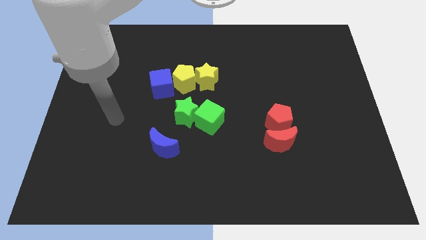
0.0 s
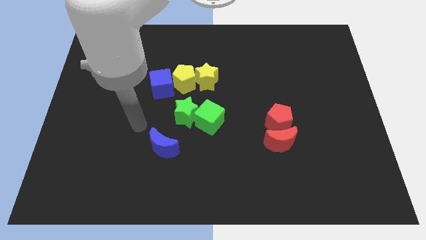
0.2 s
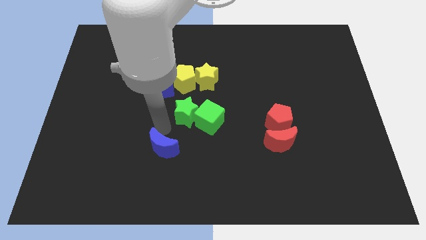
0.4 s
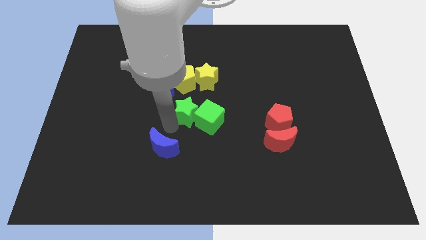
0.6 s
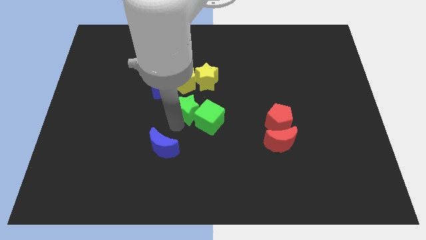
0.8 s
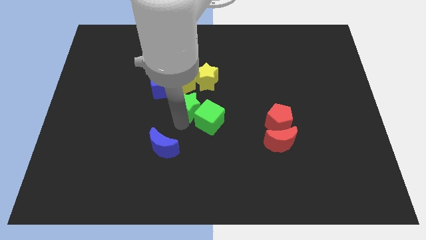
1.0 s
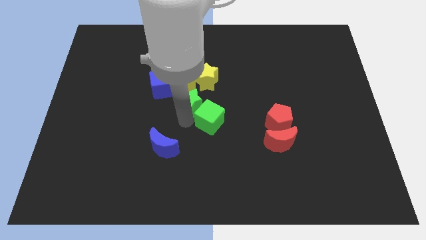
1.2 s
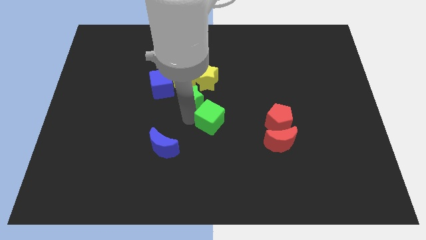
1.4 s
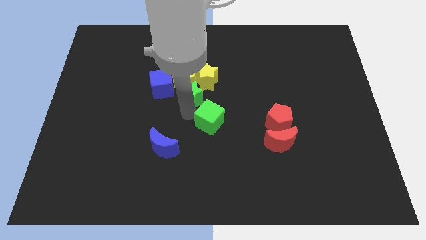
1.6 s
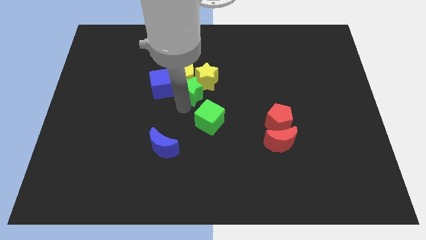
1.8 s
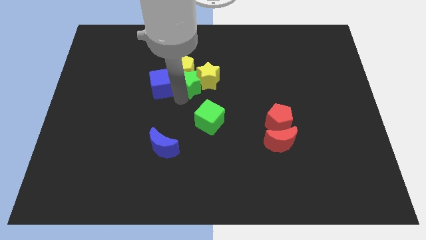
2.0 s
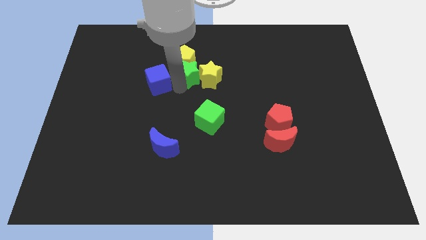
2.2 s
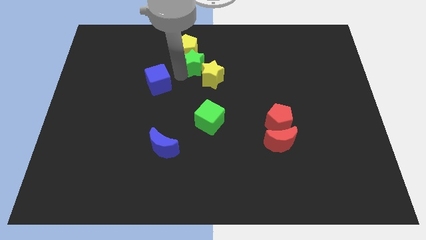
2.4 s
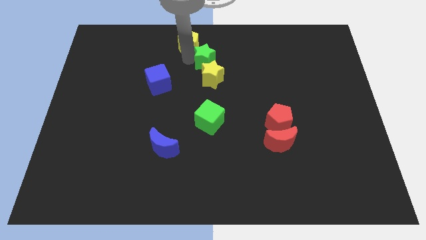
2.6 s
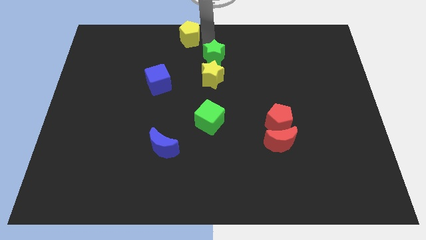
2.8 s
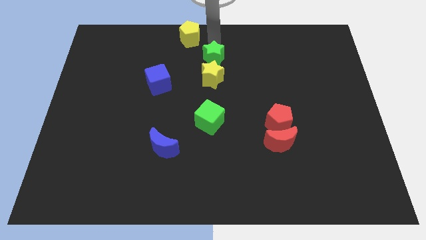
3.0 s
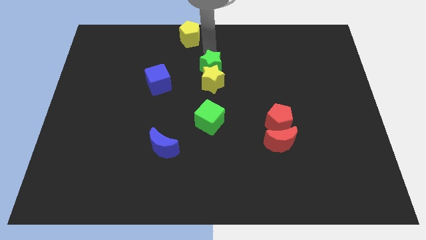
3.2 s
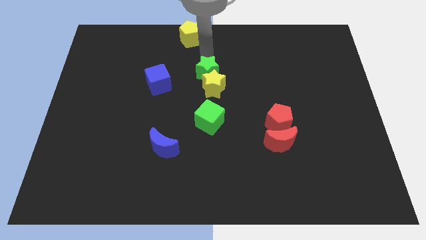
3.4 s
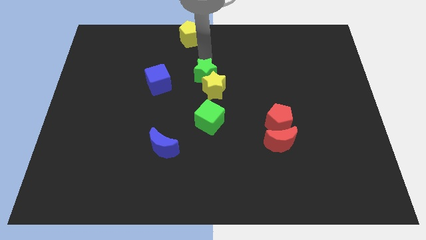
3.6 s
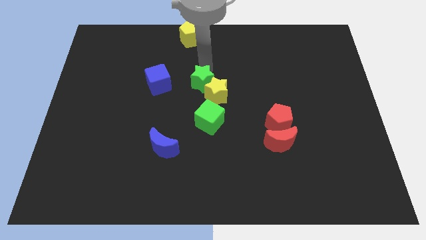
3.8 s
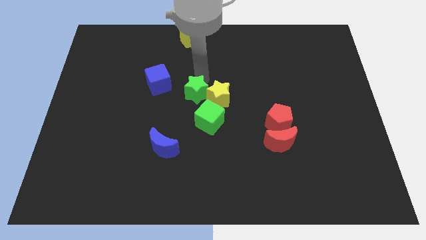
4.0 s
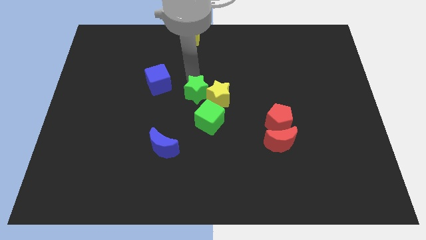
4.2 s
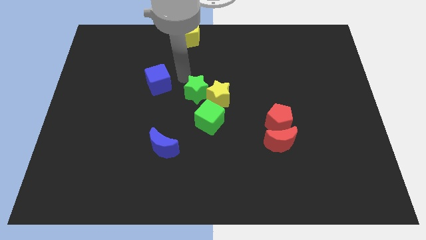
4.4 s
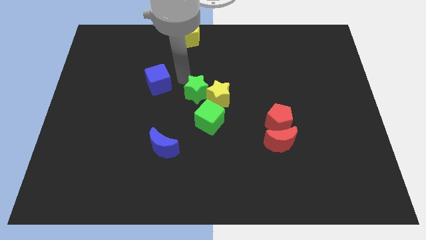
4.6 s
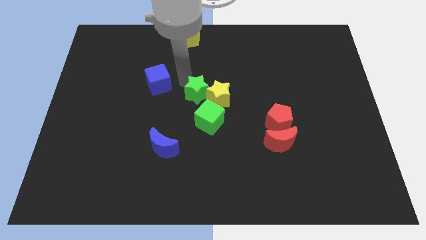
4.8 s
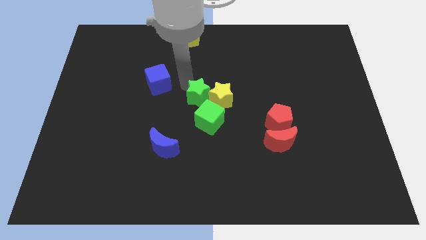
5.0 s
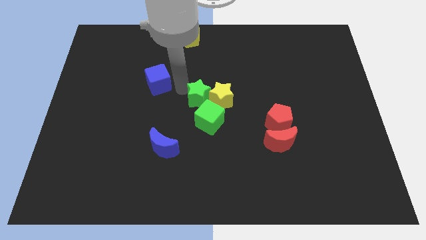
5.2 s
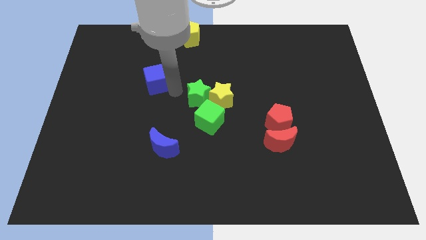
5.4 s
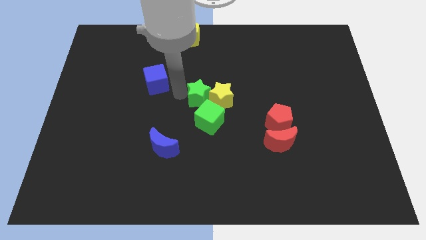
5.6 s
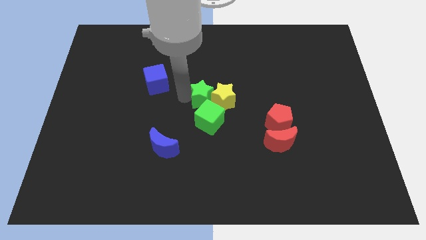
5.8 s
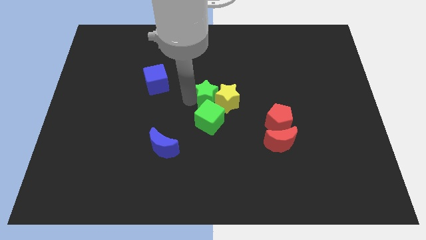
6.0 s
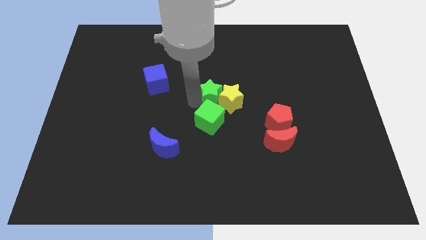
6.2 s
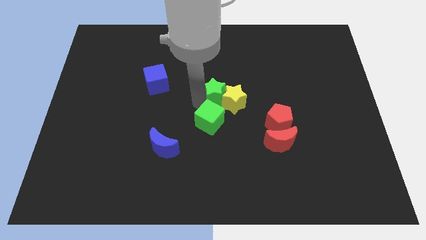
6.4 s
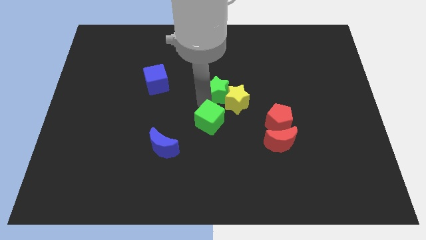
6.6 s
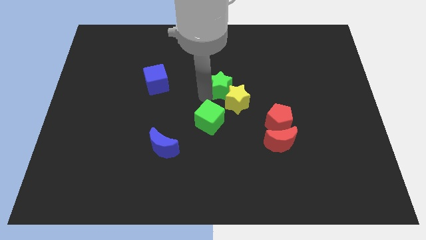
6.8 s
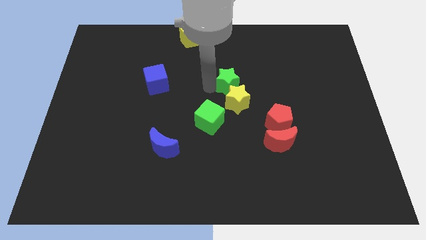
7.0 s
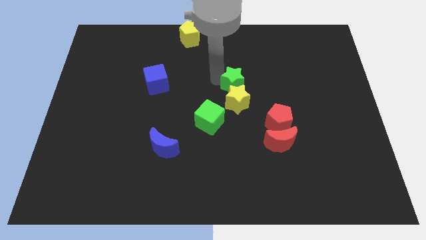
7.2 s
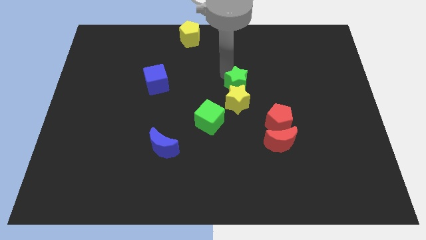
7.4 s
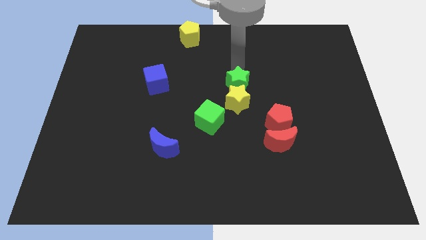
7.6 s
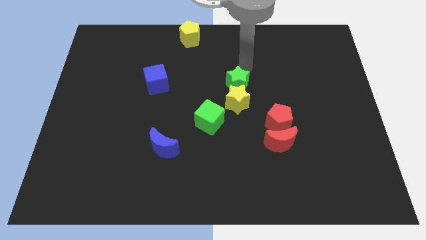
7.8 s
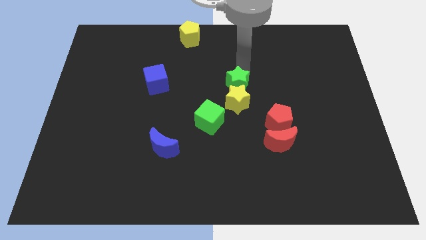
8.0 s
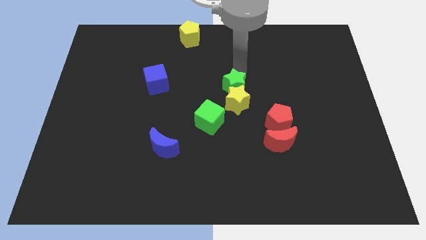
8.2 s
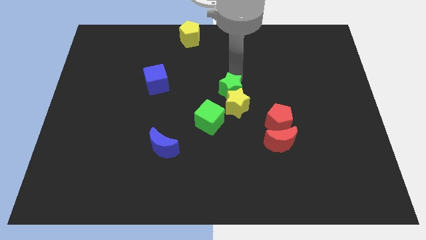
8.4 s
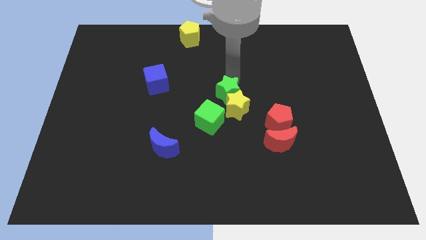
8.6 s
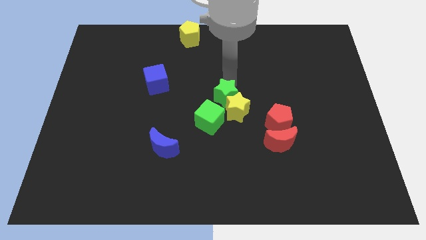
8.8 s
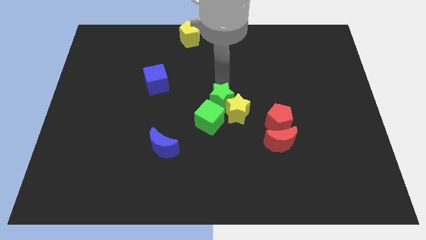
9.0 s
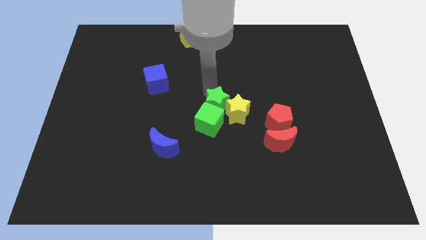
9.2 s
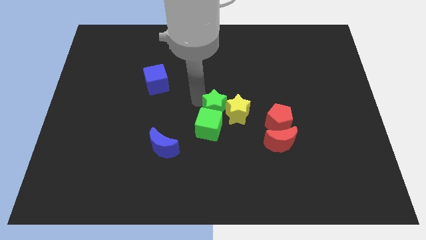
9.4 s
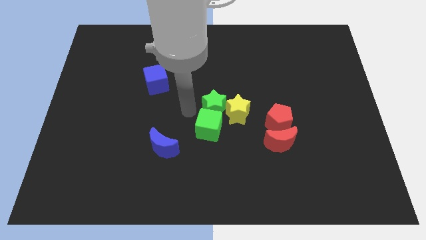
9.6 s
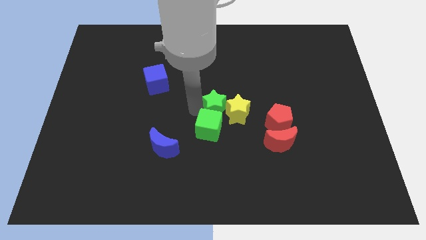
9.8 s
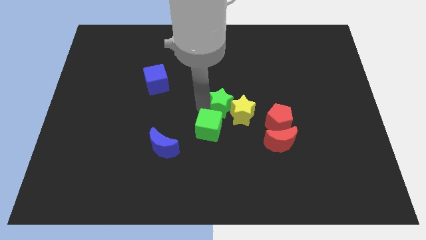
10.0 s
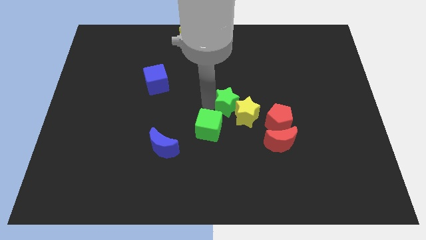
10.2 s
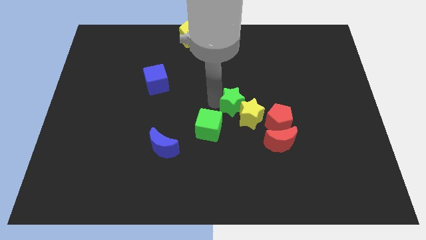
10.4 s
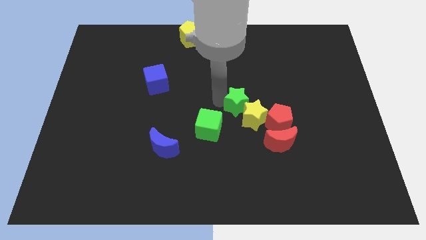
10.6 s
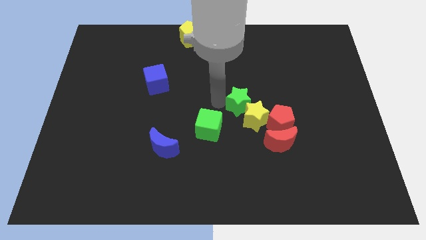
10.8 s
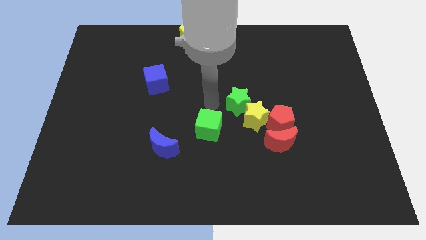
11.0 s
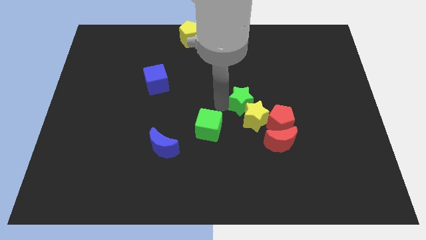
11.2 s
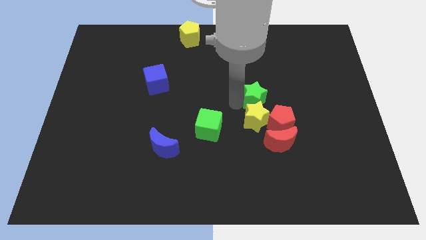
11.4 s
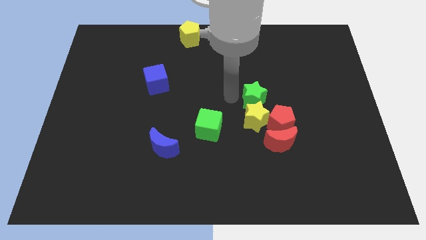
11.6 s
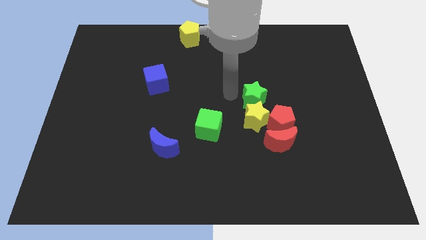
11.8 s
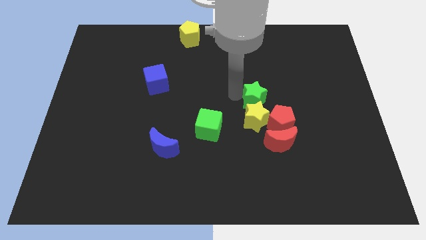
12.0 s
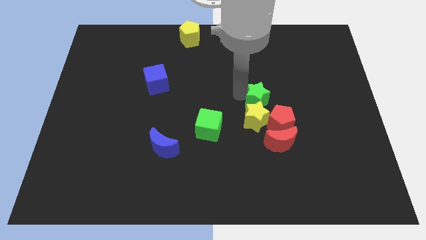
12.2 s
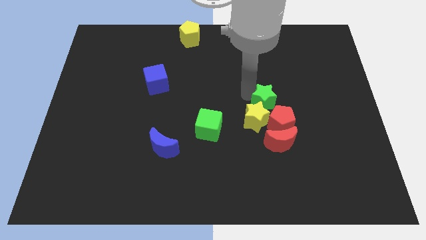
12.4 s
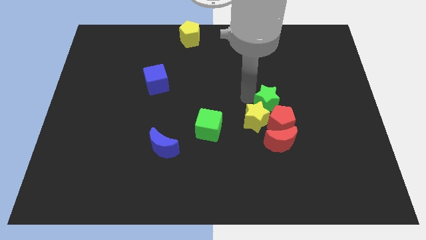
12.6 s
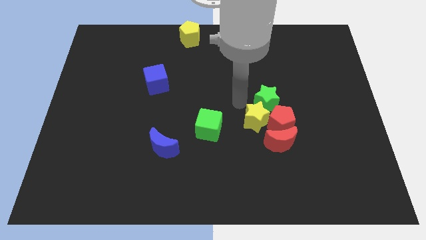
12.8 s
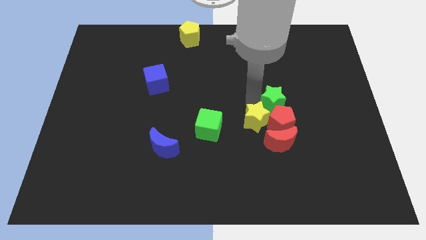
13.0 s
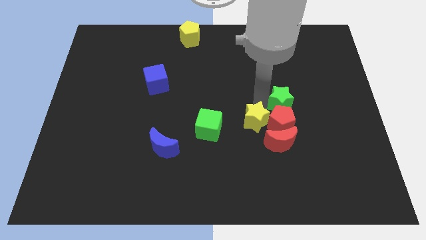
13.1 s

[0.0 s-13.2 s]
slide the green star to the right

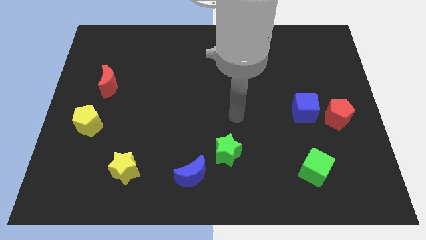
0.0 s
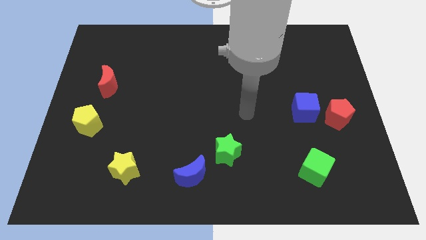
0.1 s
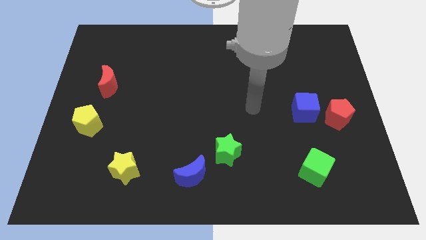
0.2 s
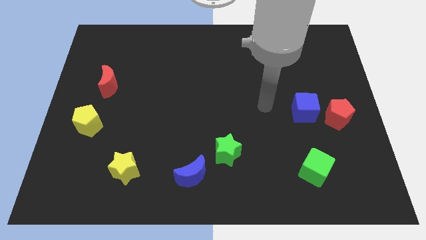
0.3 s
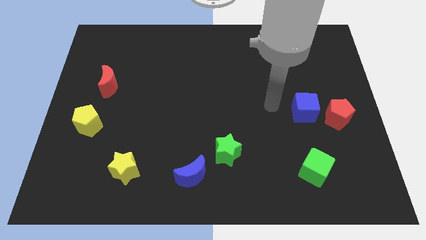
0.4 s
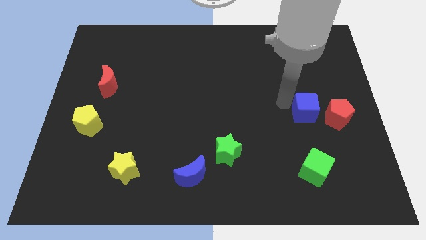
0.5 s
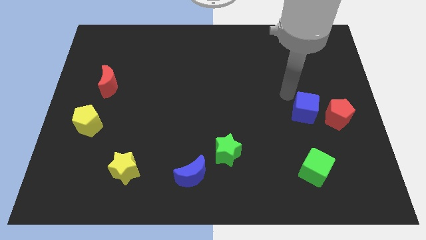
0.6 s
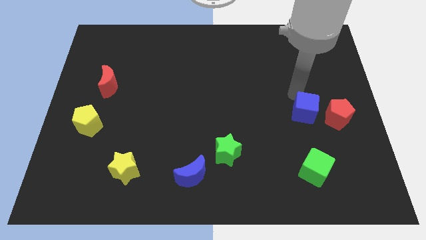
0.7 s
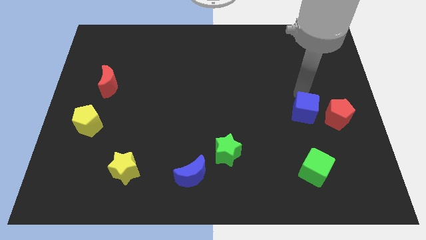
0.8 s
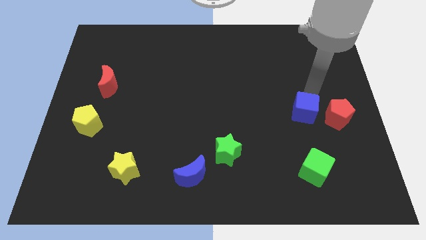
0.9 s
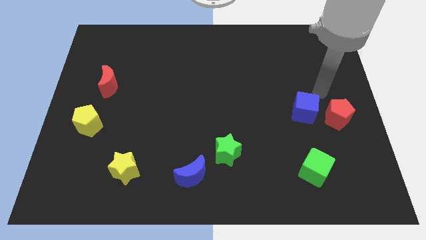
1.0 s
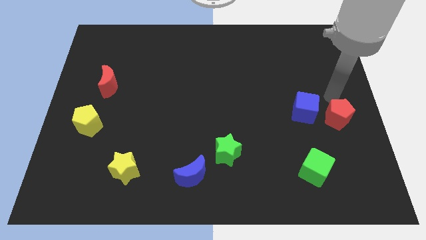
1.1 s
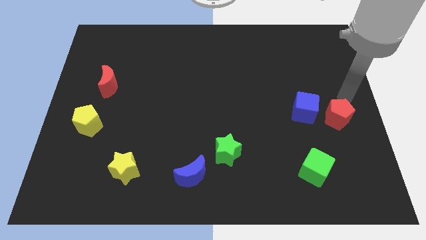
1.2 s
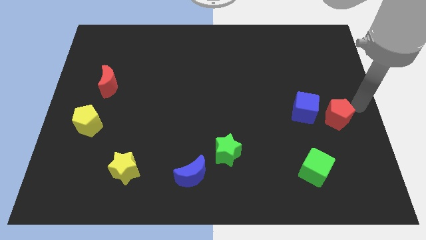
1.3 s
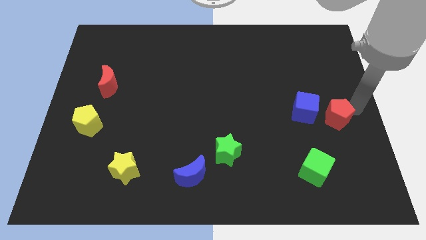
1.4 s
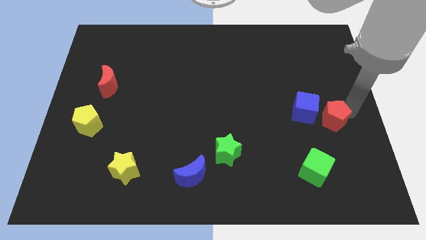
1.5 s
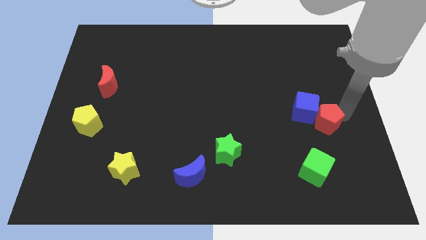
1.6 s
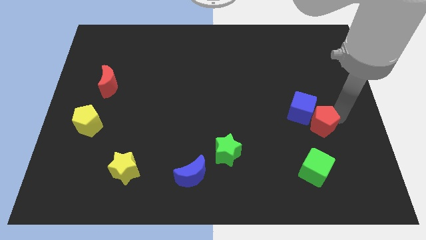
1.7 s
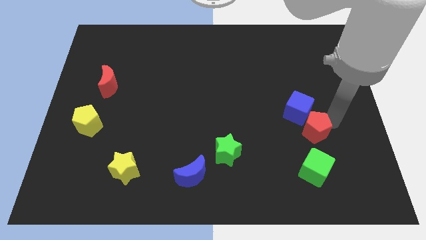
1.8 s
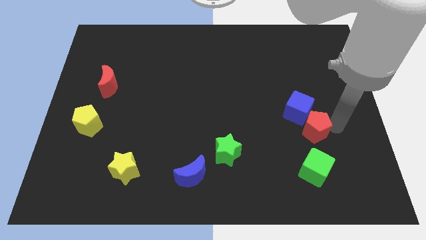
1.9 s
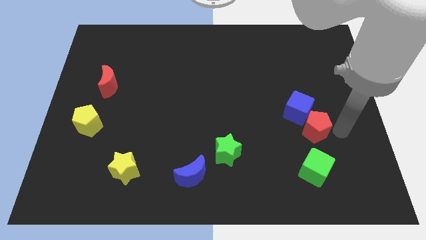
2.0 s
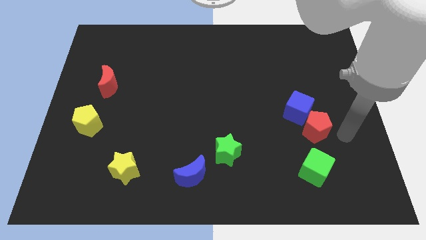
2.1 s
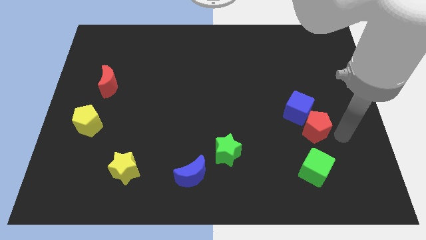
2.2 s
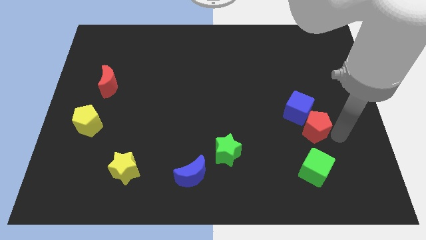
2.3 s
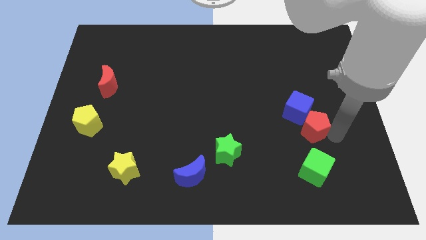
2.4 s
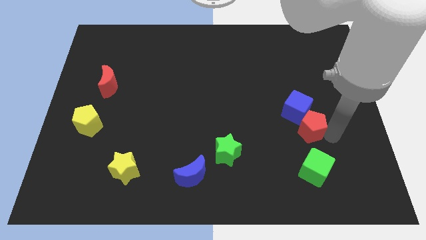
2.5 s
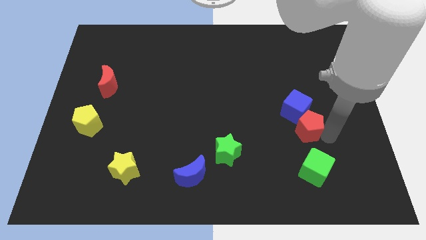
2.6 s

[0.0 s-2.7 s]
slightly push the red pentagon to the left
